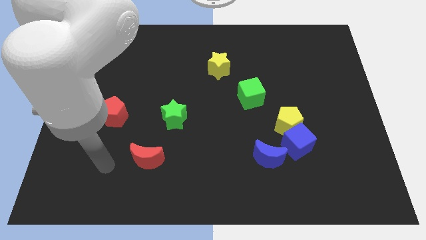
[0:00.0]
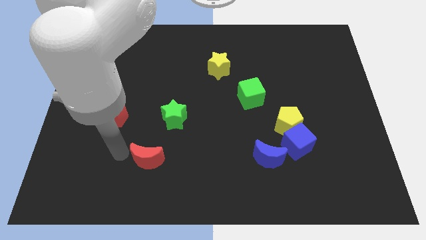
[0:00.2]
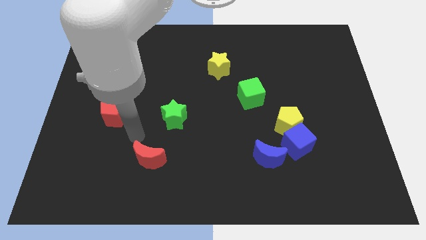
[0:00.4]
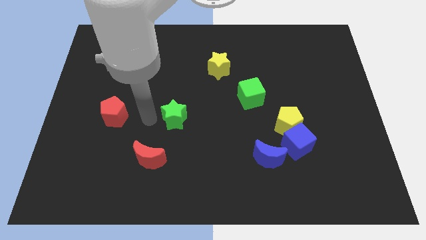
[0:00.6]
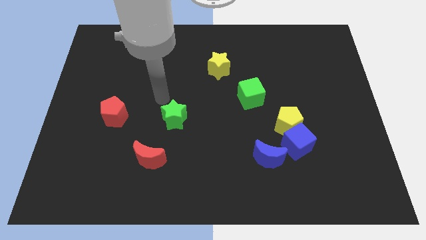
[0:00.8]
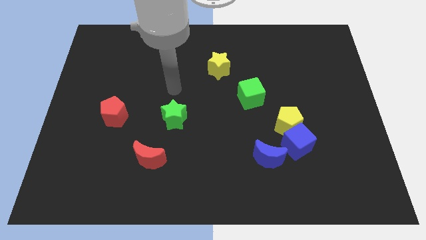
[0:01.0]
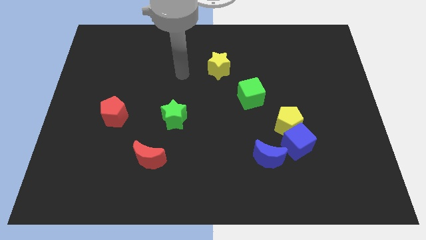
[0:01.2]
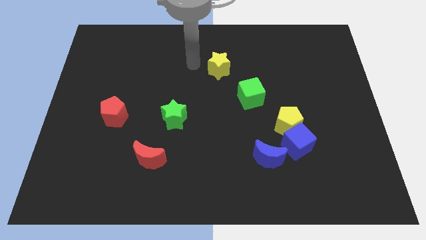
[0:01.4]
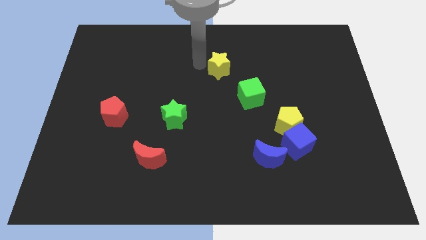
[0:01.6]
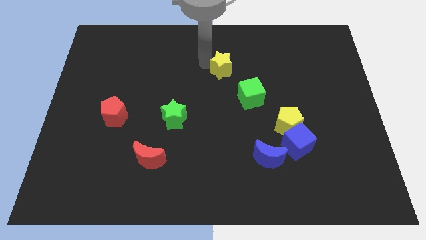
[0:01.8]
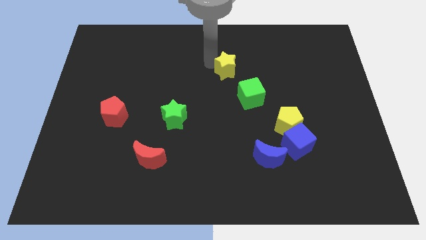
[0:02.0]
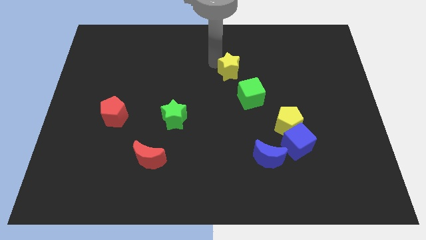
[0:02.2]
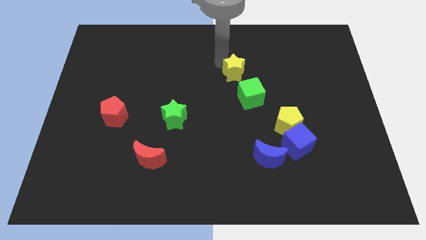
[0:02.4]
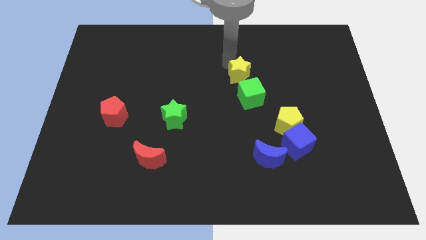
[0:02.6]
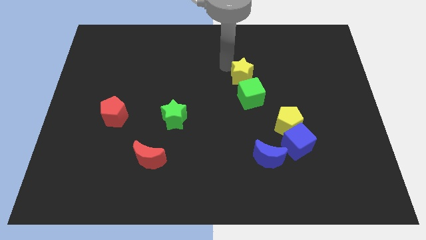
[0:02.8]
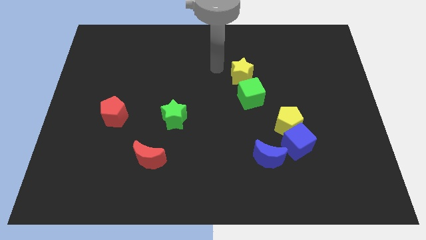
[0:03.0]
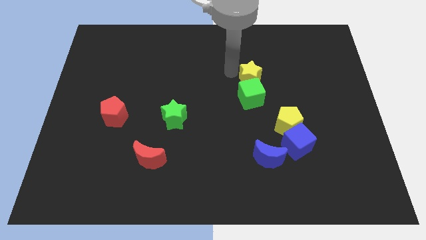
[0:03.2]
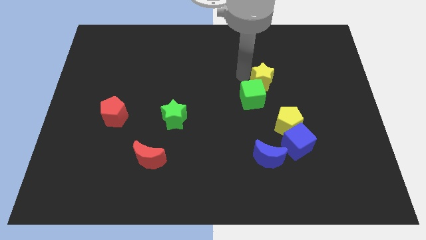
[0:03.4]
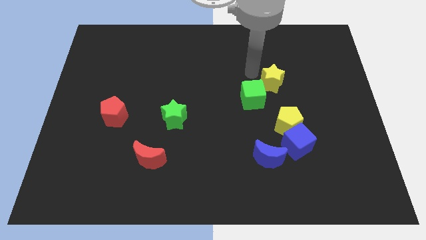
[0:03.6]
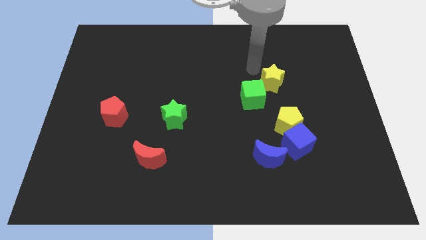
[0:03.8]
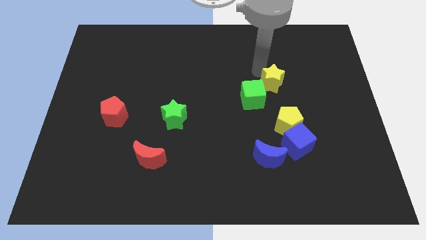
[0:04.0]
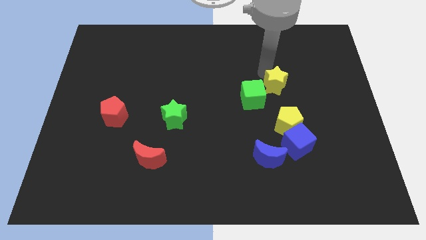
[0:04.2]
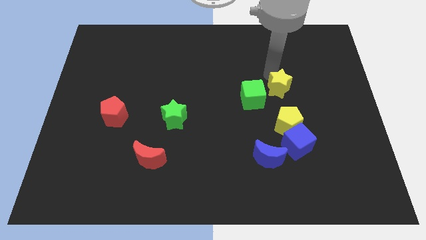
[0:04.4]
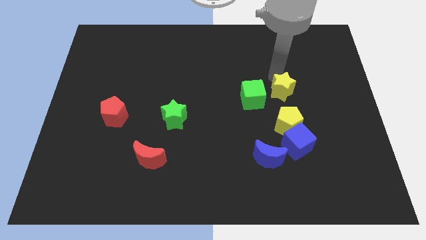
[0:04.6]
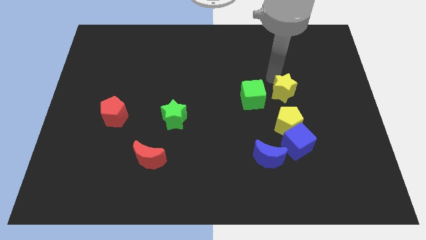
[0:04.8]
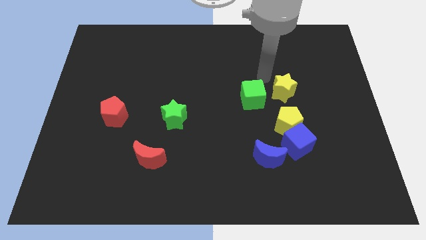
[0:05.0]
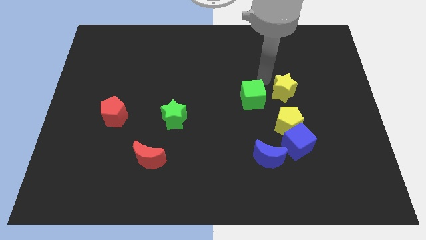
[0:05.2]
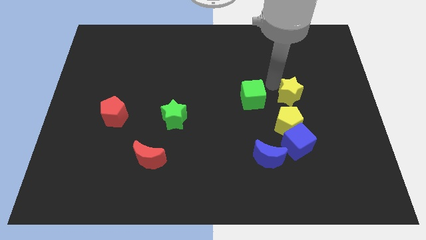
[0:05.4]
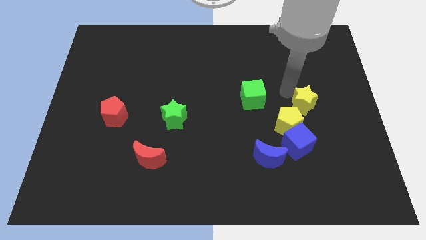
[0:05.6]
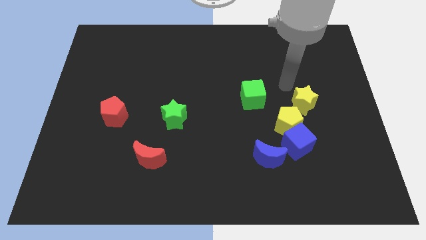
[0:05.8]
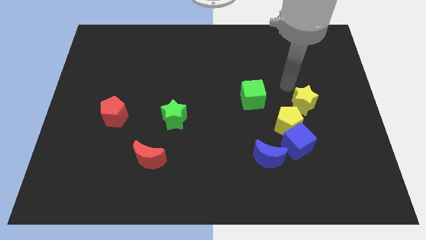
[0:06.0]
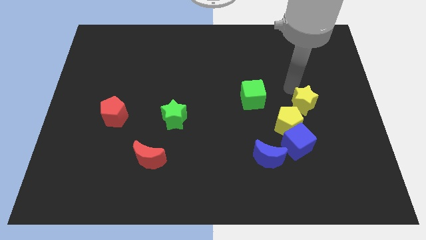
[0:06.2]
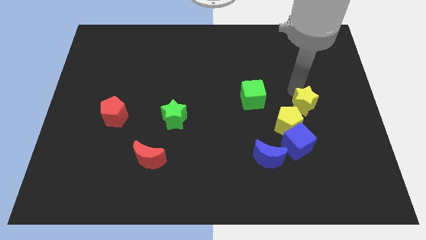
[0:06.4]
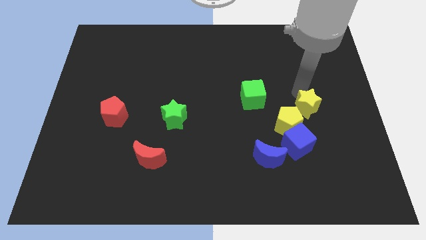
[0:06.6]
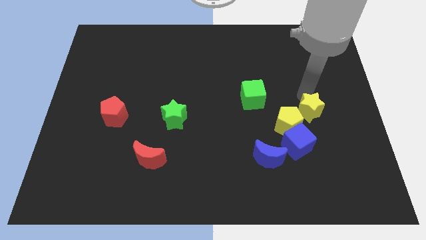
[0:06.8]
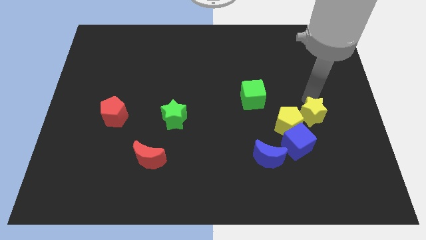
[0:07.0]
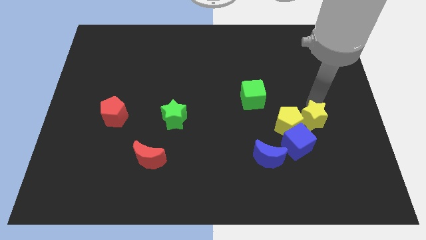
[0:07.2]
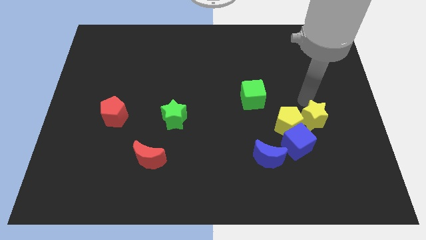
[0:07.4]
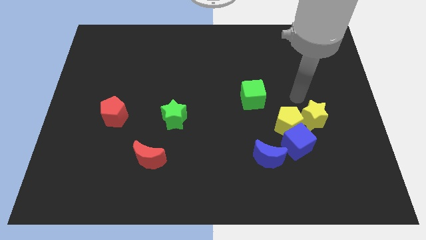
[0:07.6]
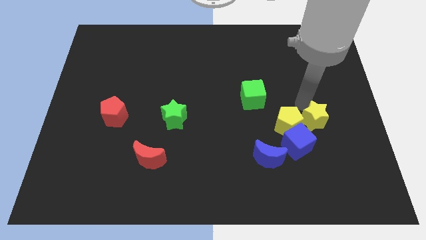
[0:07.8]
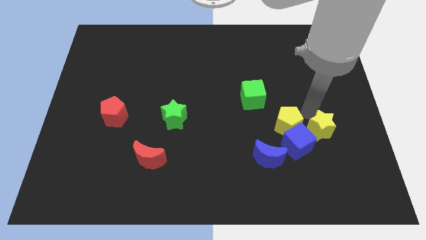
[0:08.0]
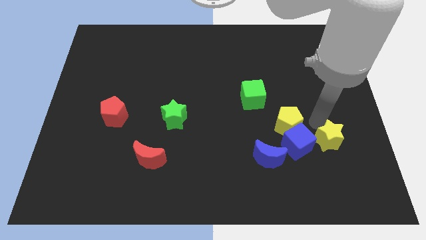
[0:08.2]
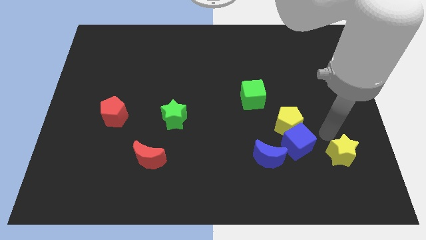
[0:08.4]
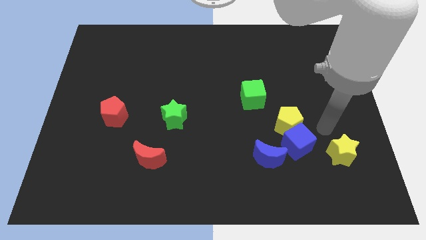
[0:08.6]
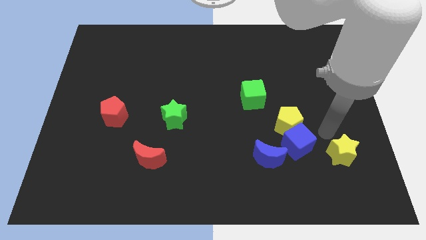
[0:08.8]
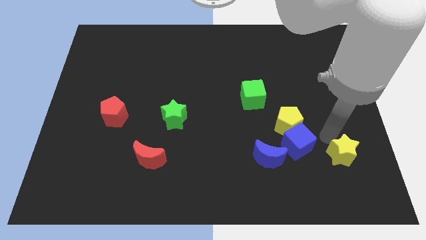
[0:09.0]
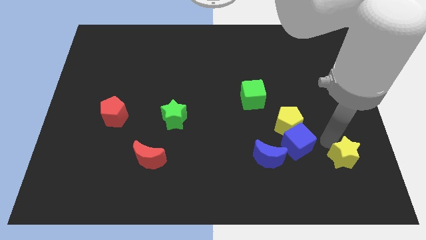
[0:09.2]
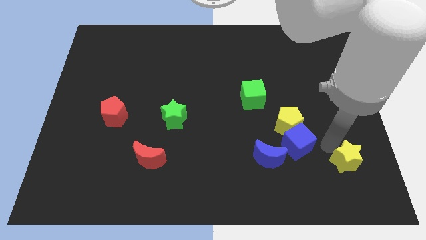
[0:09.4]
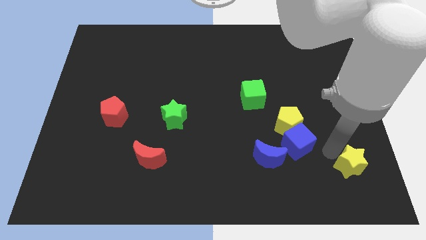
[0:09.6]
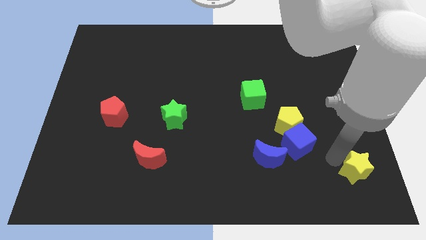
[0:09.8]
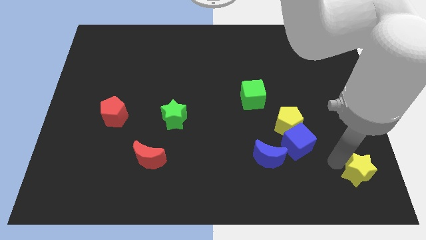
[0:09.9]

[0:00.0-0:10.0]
move the yellow star to the lower right corner

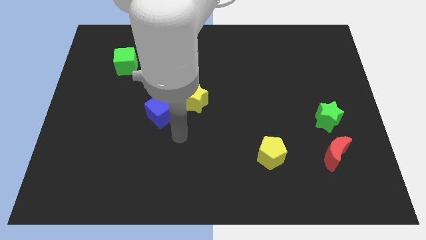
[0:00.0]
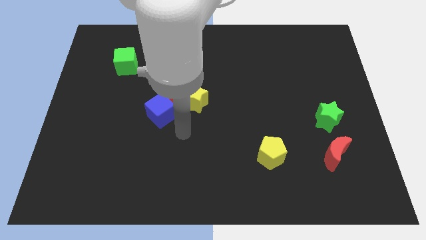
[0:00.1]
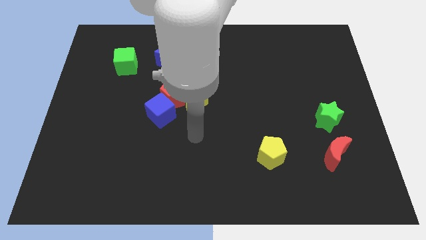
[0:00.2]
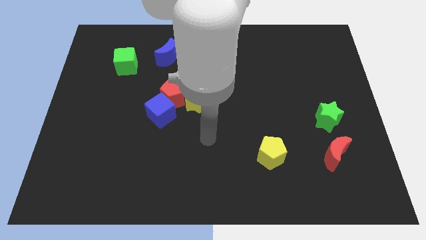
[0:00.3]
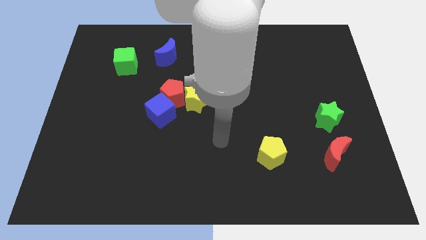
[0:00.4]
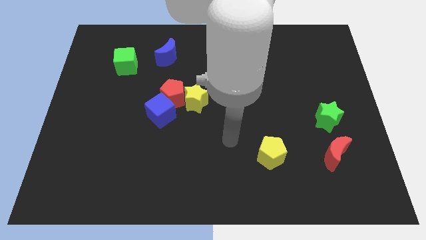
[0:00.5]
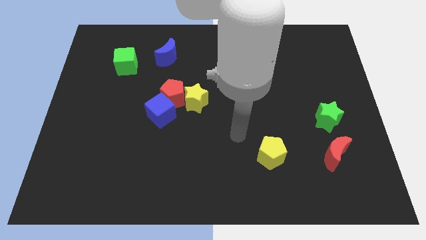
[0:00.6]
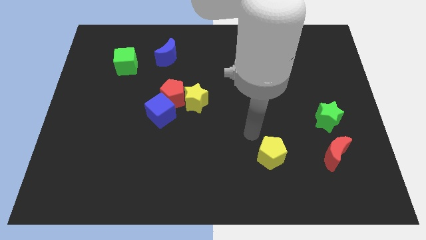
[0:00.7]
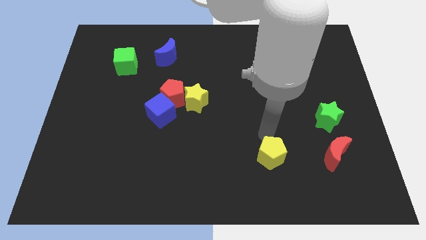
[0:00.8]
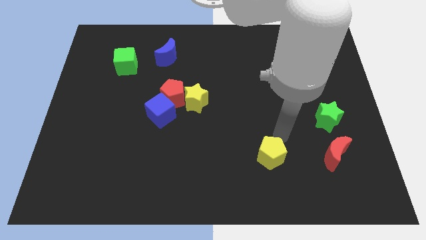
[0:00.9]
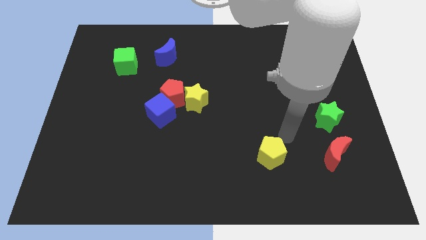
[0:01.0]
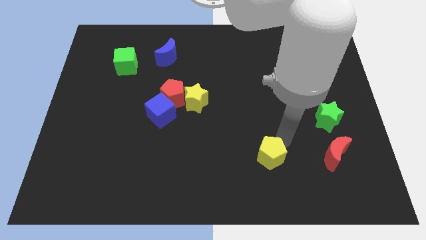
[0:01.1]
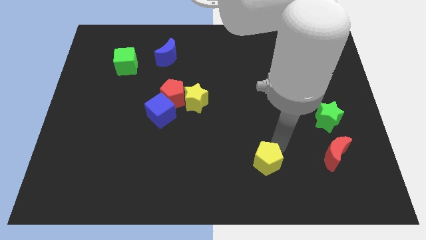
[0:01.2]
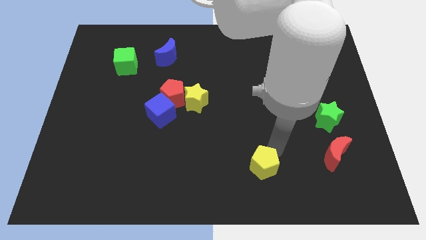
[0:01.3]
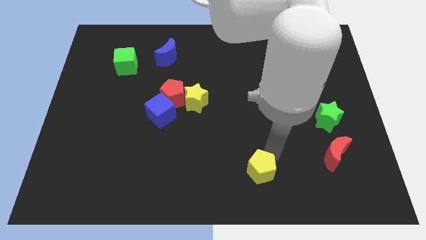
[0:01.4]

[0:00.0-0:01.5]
slide the yellow pentagon to the bottom
